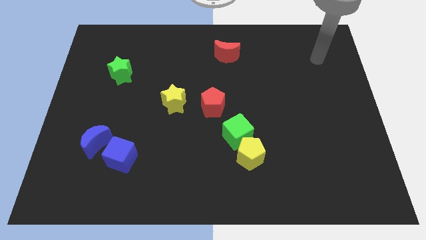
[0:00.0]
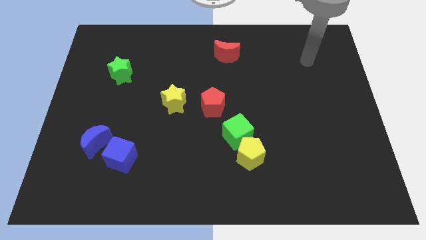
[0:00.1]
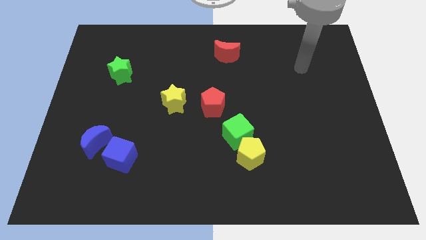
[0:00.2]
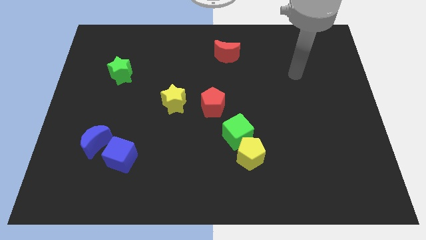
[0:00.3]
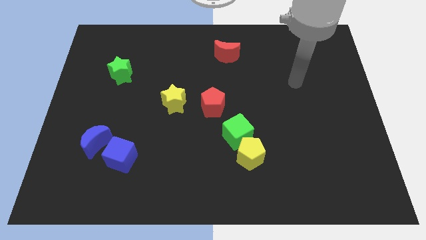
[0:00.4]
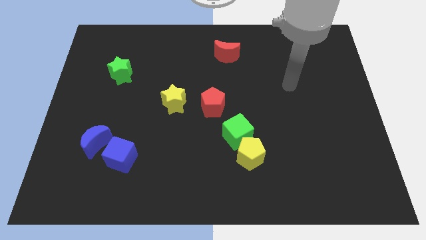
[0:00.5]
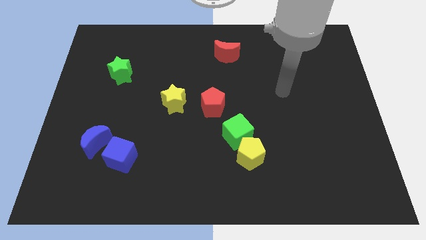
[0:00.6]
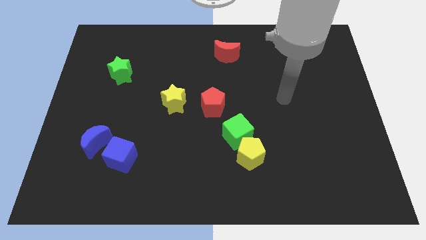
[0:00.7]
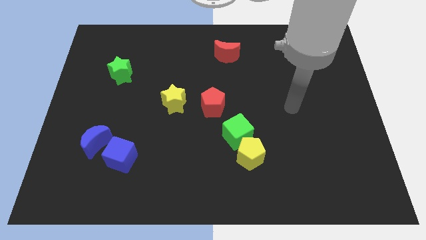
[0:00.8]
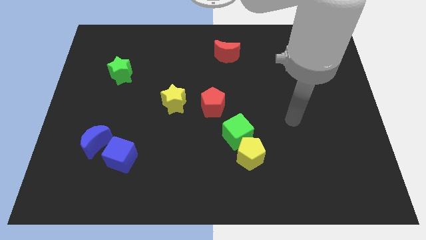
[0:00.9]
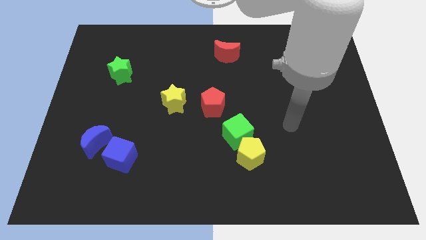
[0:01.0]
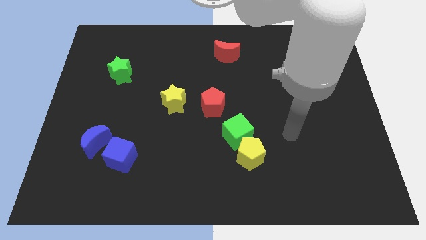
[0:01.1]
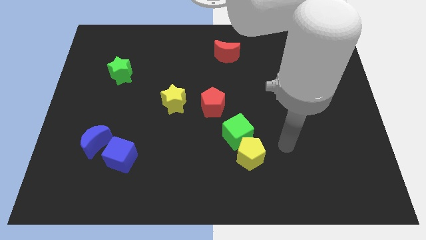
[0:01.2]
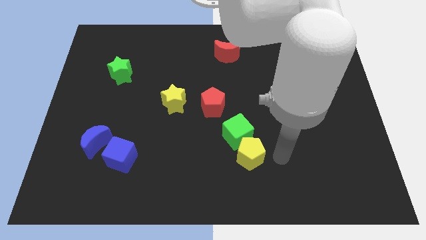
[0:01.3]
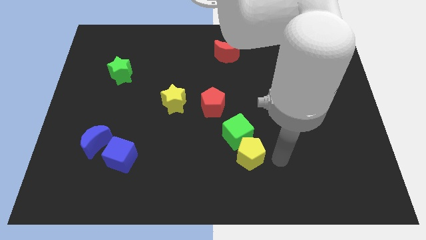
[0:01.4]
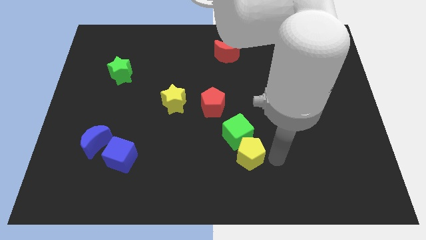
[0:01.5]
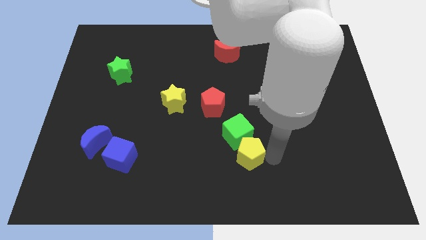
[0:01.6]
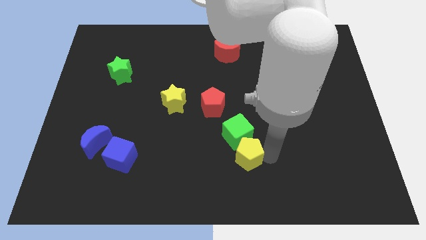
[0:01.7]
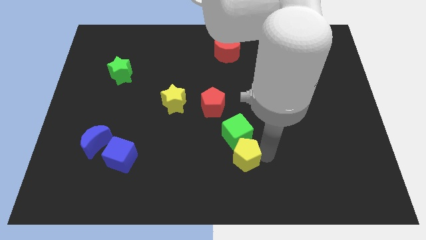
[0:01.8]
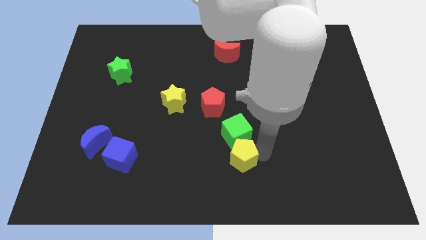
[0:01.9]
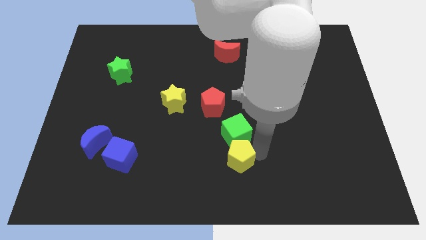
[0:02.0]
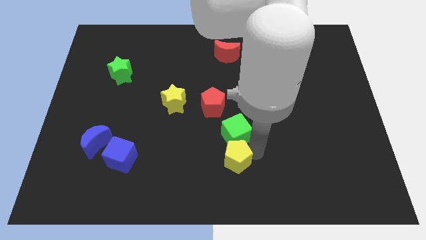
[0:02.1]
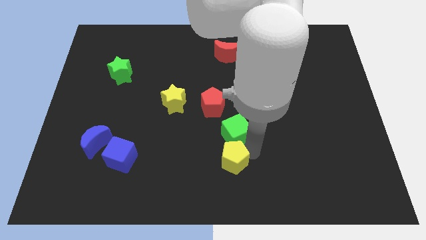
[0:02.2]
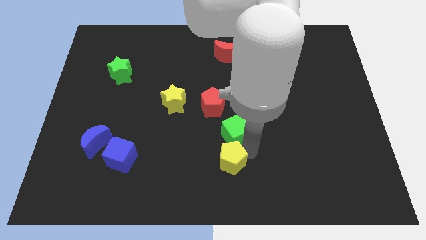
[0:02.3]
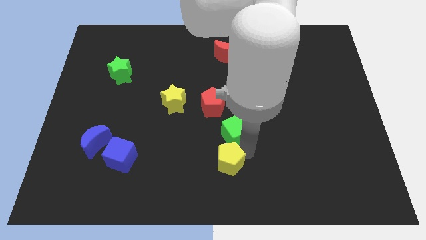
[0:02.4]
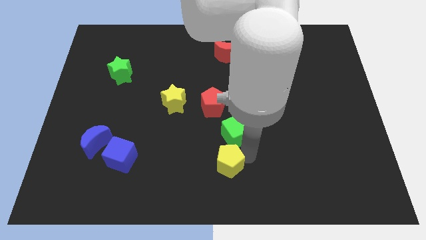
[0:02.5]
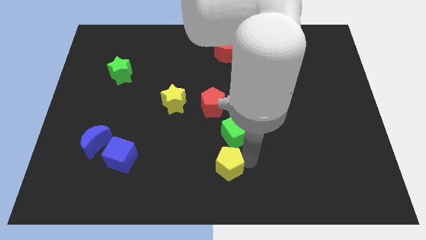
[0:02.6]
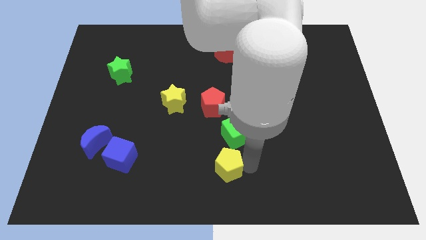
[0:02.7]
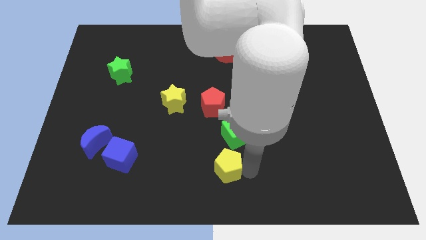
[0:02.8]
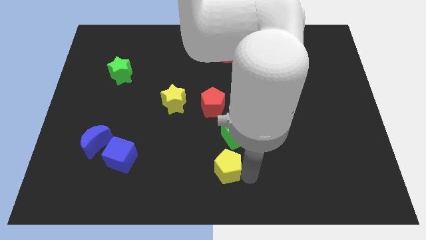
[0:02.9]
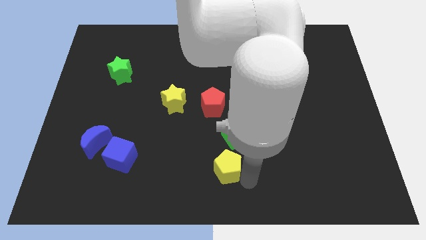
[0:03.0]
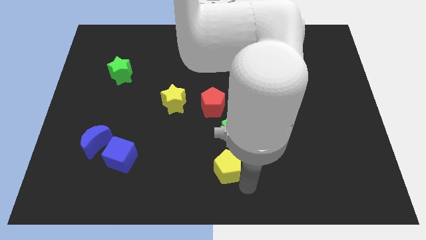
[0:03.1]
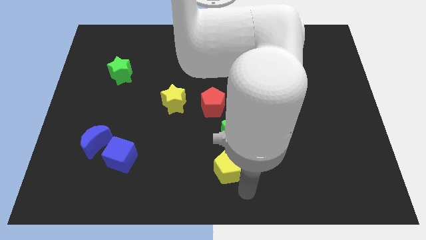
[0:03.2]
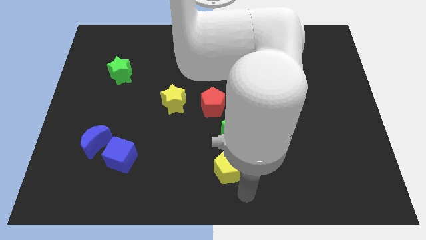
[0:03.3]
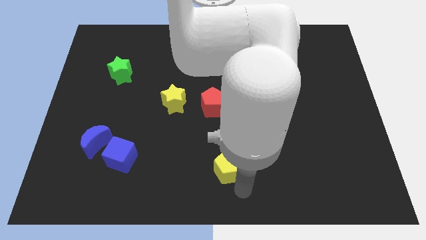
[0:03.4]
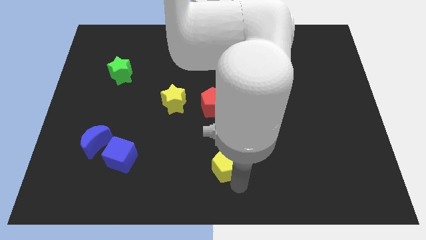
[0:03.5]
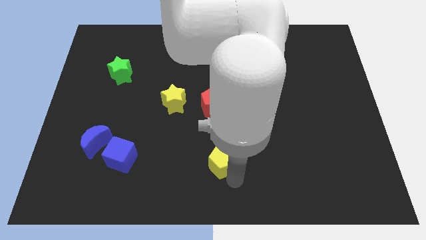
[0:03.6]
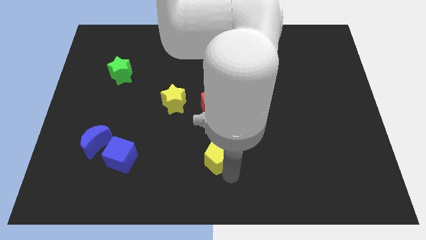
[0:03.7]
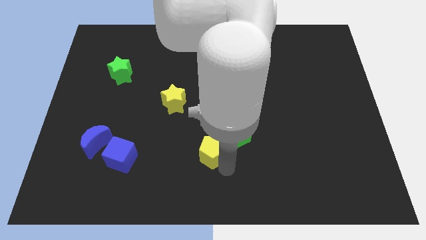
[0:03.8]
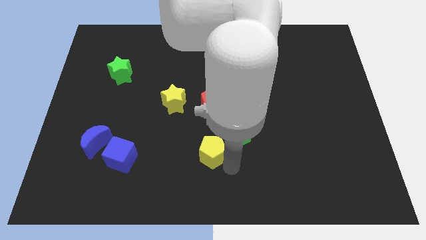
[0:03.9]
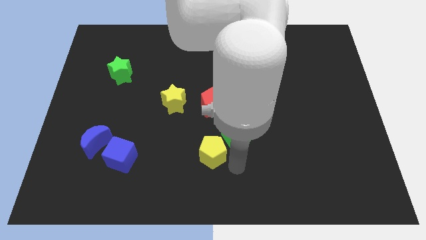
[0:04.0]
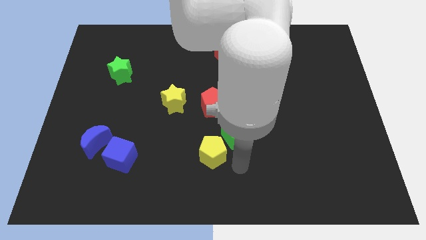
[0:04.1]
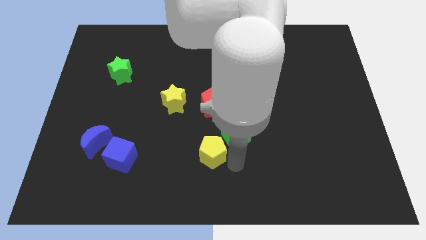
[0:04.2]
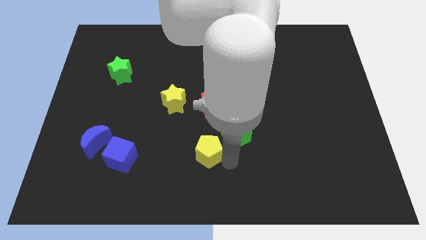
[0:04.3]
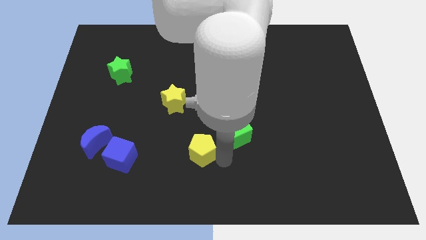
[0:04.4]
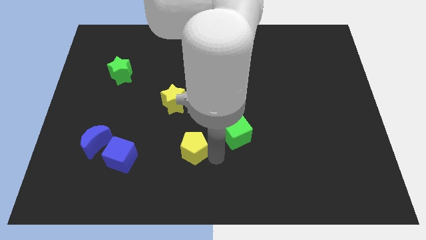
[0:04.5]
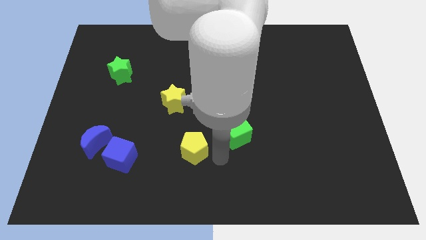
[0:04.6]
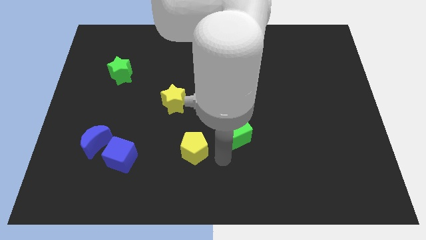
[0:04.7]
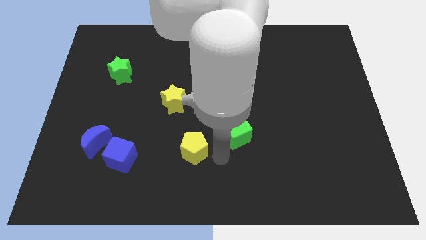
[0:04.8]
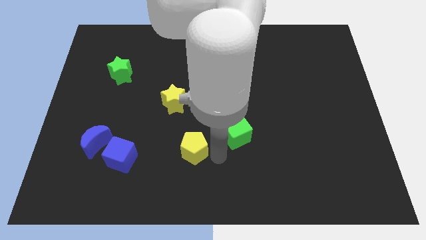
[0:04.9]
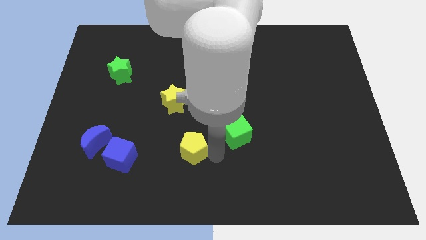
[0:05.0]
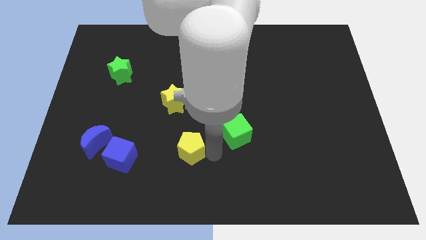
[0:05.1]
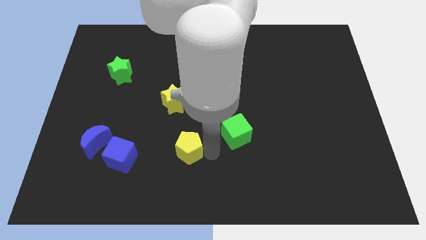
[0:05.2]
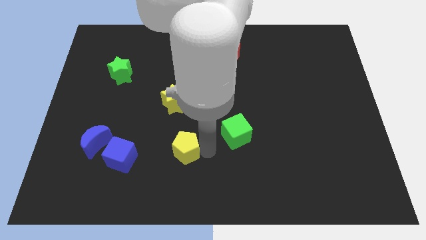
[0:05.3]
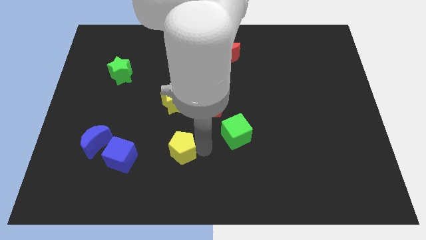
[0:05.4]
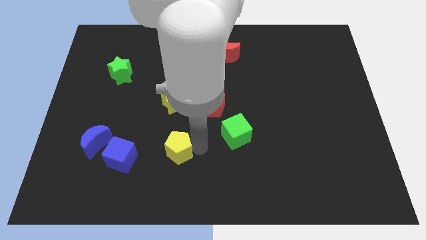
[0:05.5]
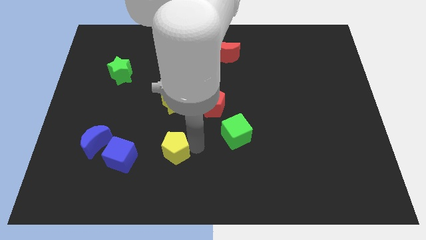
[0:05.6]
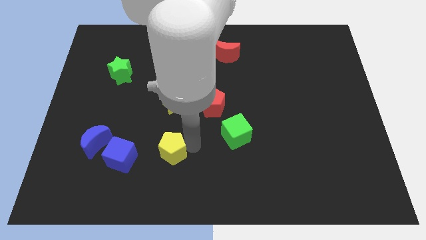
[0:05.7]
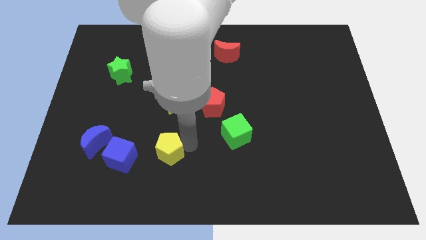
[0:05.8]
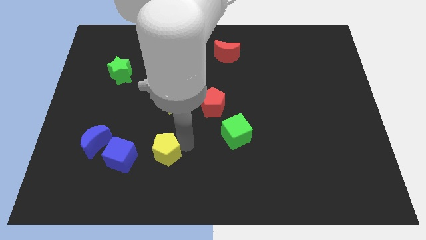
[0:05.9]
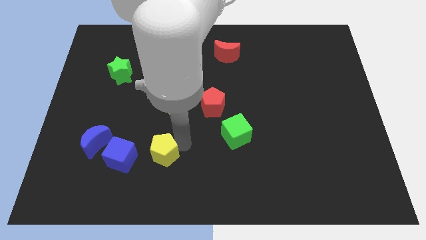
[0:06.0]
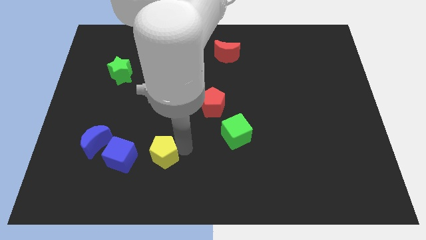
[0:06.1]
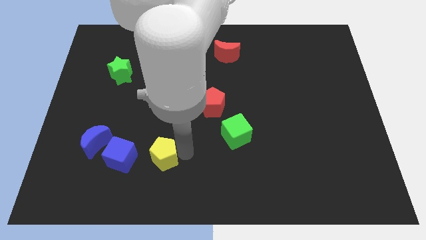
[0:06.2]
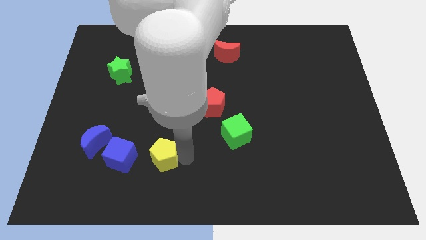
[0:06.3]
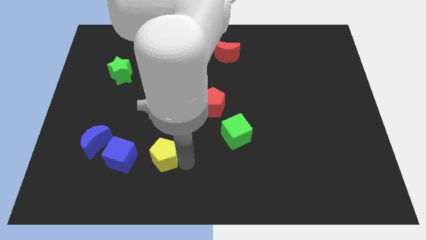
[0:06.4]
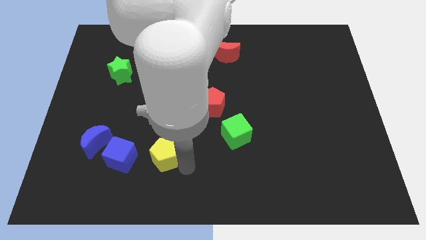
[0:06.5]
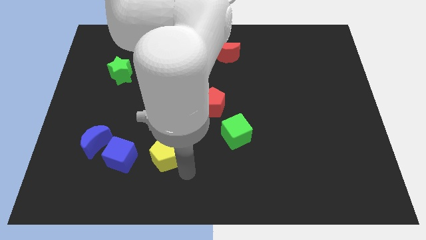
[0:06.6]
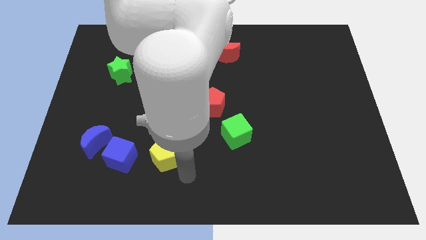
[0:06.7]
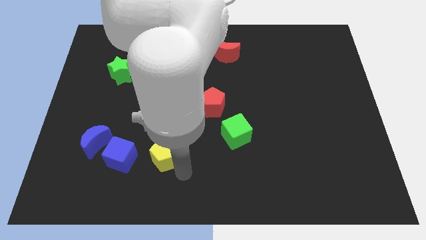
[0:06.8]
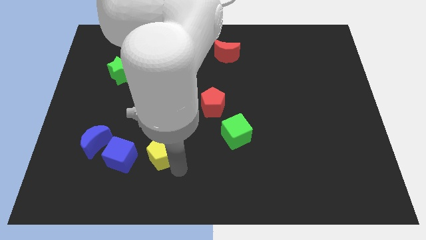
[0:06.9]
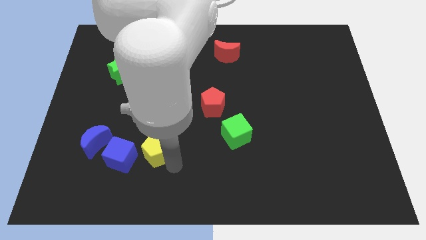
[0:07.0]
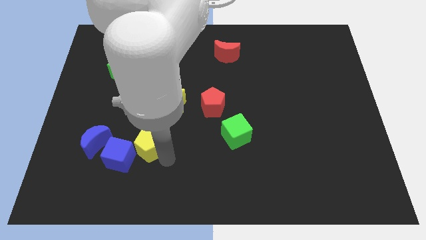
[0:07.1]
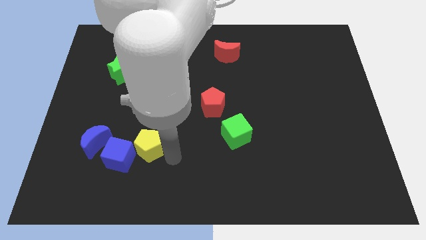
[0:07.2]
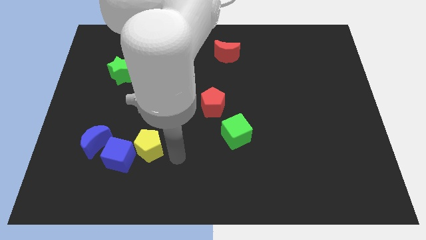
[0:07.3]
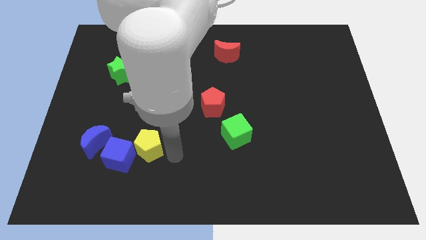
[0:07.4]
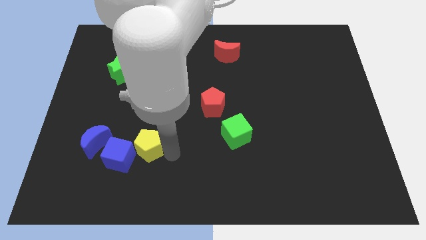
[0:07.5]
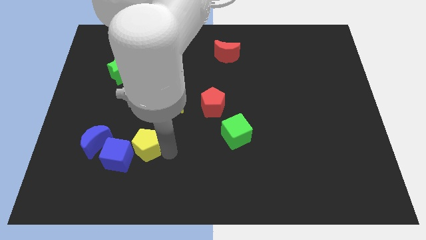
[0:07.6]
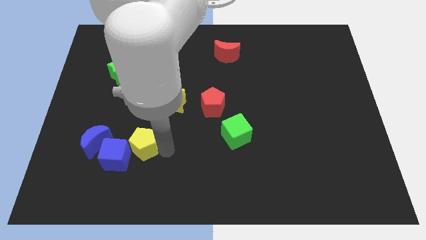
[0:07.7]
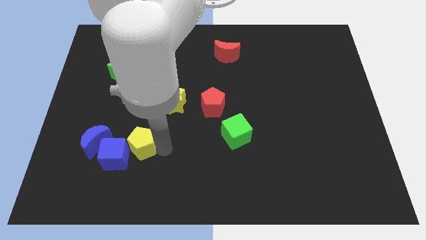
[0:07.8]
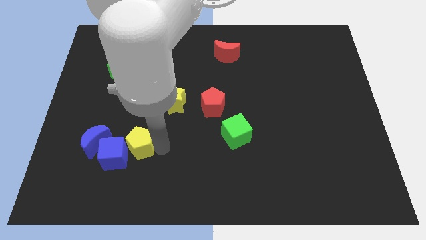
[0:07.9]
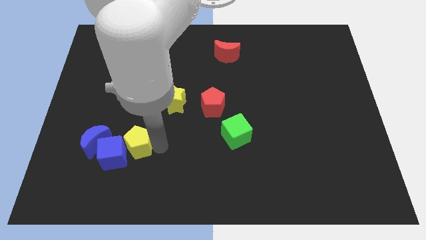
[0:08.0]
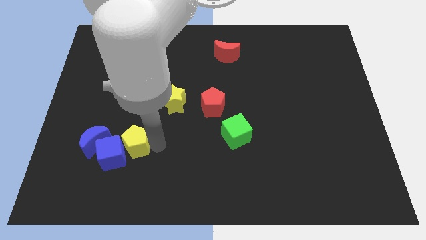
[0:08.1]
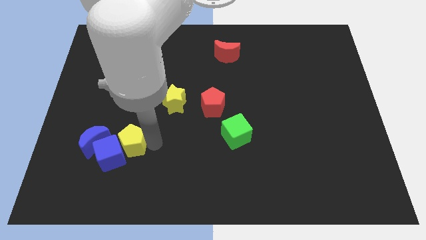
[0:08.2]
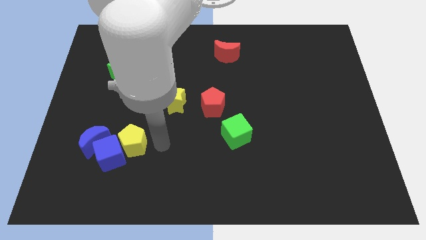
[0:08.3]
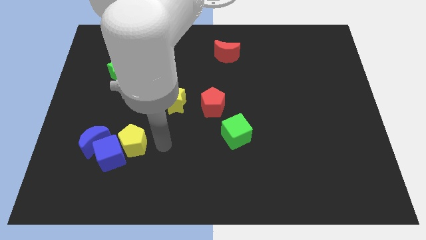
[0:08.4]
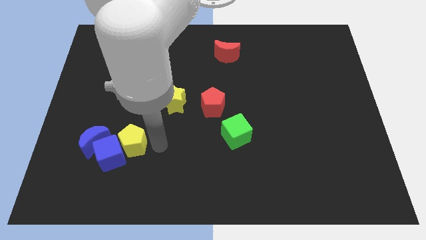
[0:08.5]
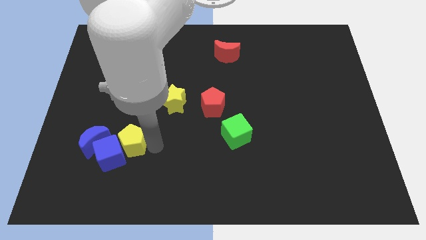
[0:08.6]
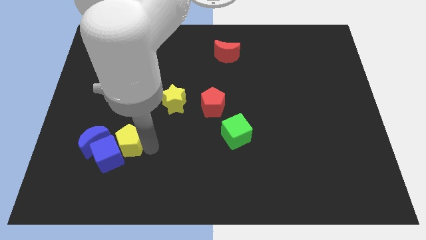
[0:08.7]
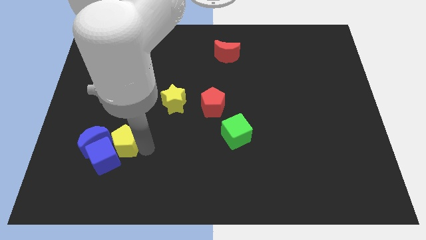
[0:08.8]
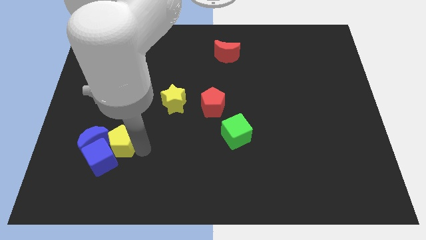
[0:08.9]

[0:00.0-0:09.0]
move the yellow pentagon towards the blue moon
